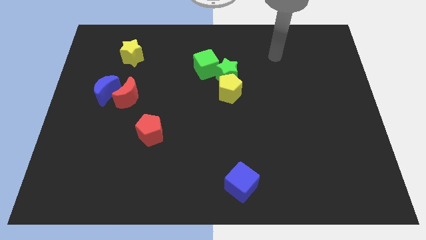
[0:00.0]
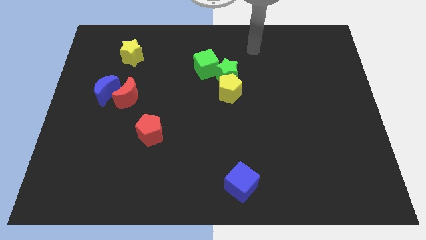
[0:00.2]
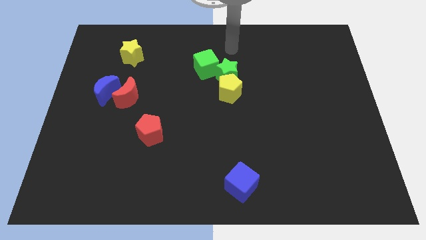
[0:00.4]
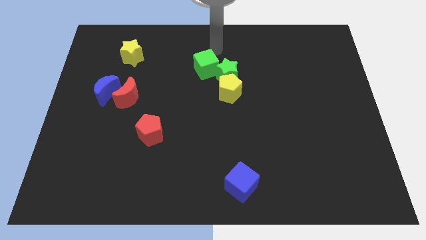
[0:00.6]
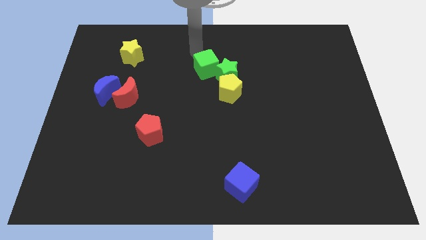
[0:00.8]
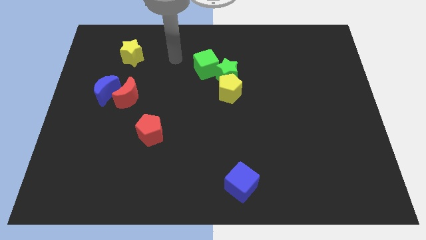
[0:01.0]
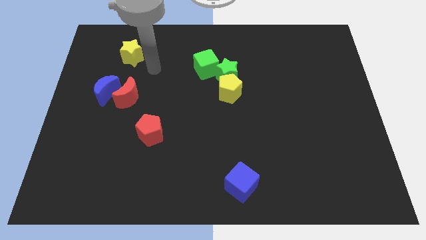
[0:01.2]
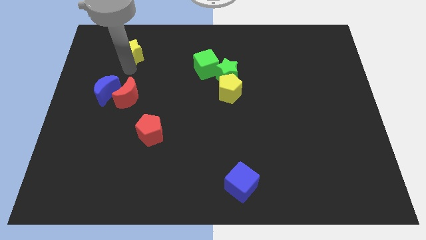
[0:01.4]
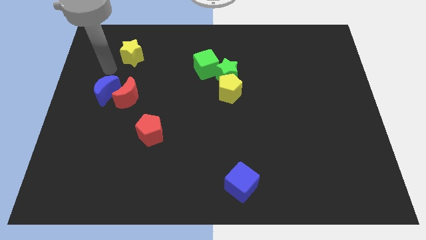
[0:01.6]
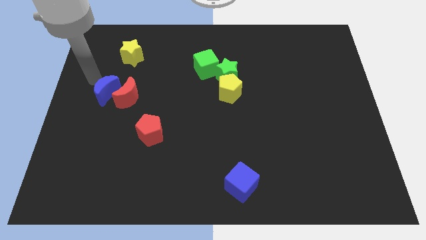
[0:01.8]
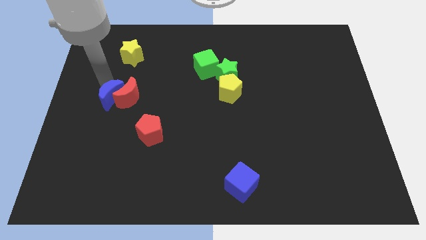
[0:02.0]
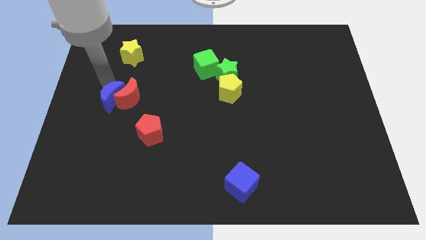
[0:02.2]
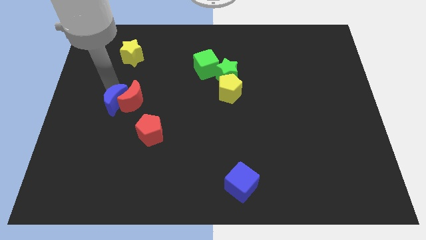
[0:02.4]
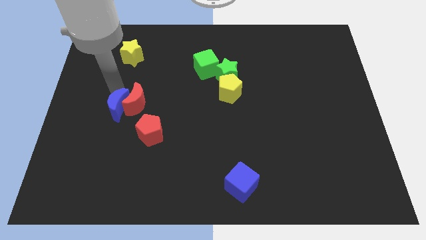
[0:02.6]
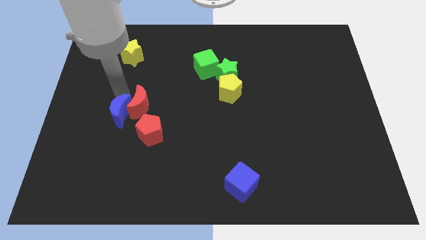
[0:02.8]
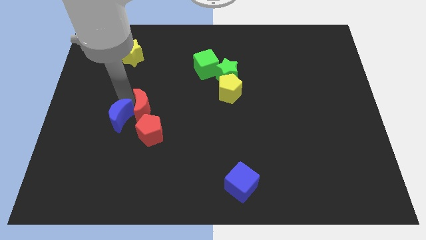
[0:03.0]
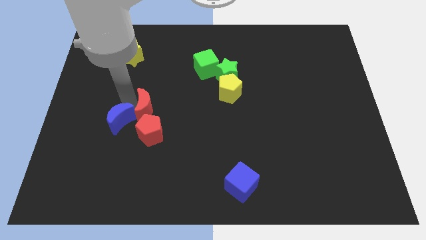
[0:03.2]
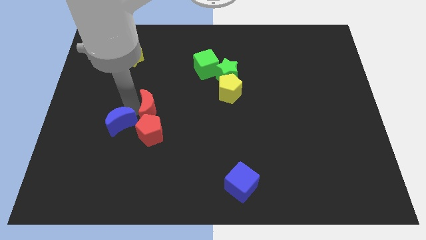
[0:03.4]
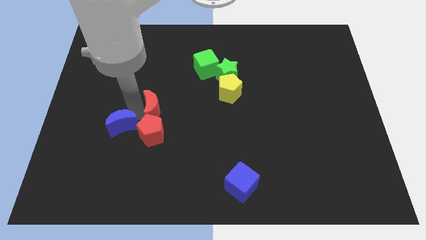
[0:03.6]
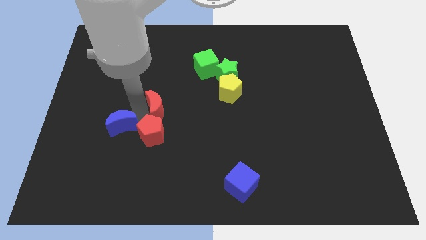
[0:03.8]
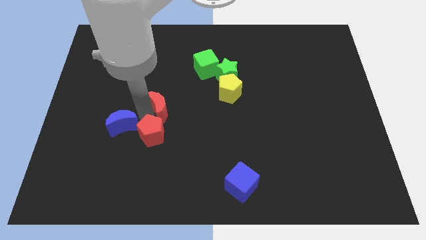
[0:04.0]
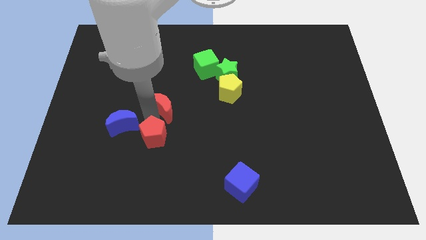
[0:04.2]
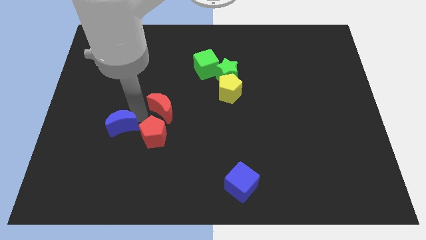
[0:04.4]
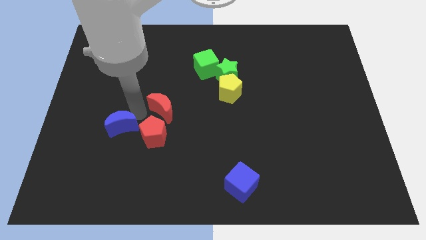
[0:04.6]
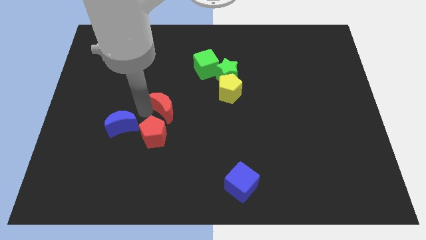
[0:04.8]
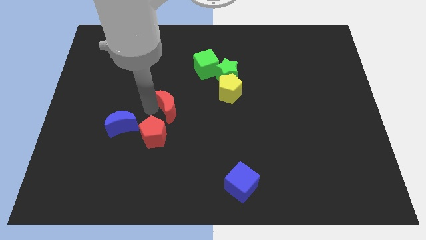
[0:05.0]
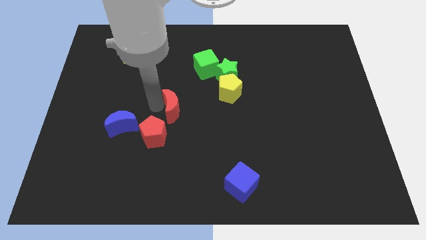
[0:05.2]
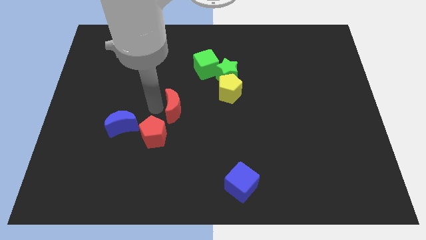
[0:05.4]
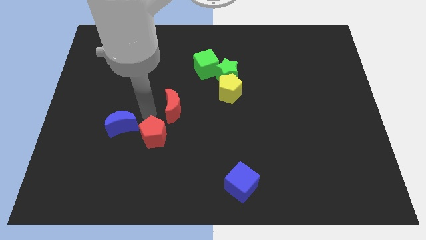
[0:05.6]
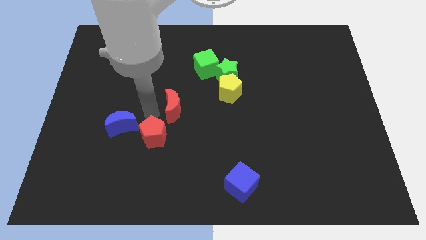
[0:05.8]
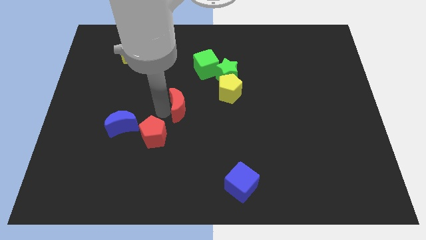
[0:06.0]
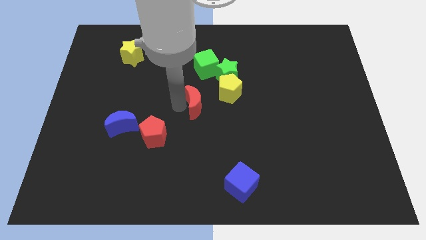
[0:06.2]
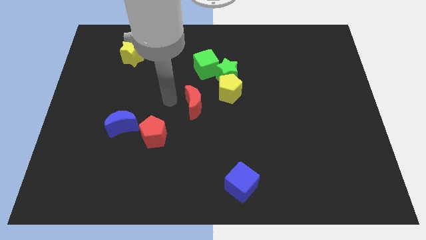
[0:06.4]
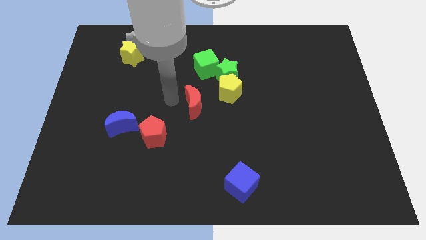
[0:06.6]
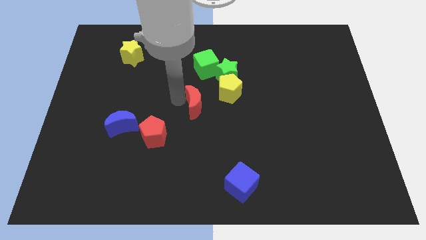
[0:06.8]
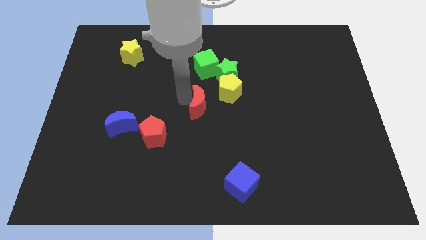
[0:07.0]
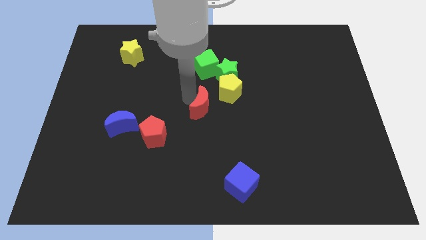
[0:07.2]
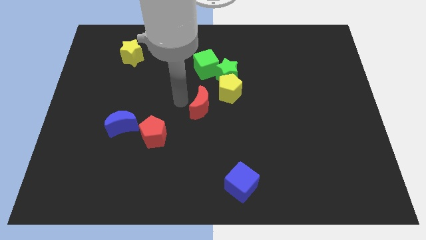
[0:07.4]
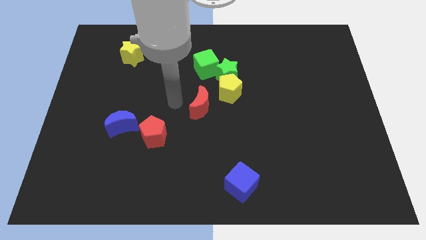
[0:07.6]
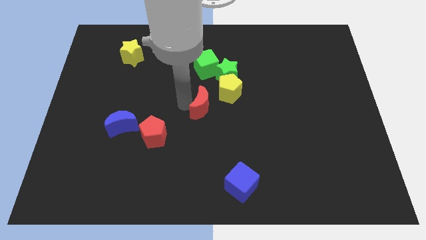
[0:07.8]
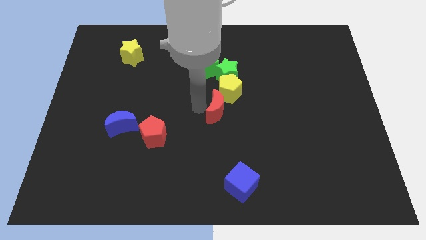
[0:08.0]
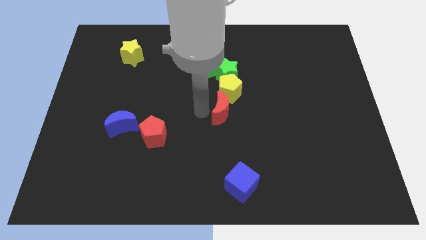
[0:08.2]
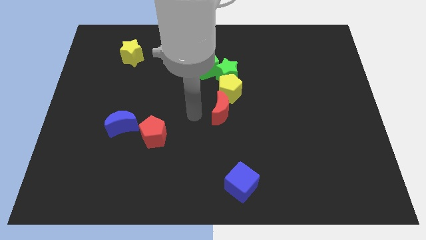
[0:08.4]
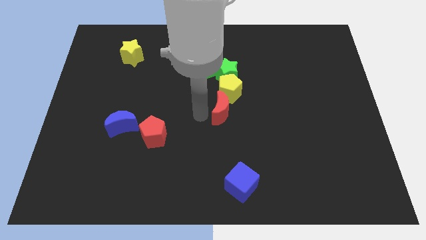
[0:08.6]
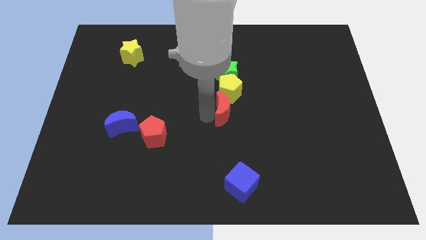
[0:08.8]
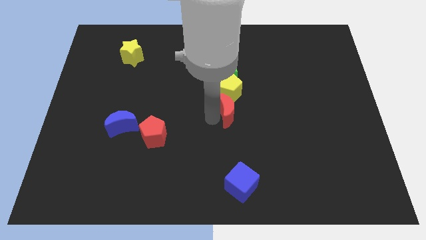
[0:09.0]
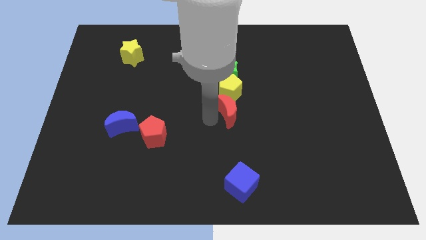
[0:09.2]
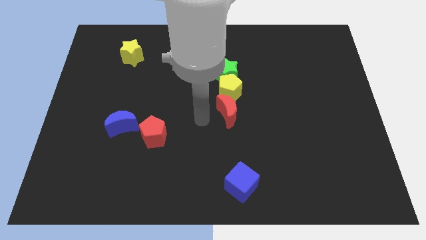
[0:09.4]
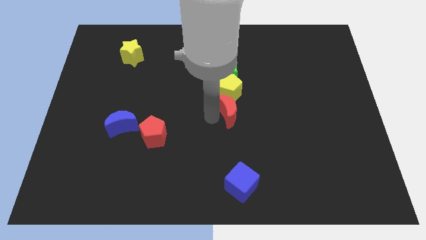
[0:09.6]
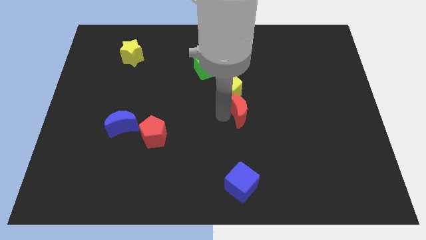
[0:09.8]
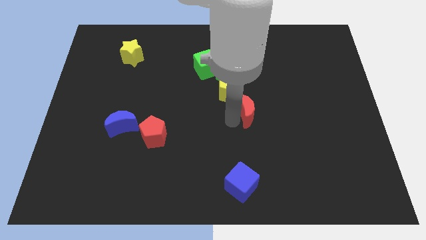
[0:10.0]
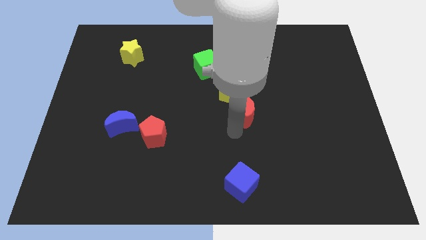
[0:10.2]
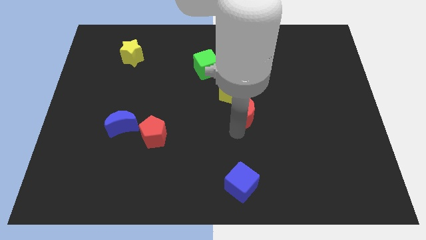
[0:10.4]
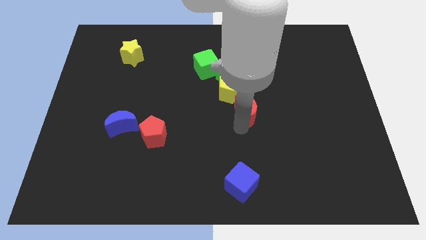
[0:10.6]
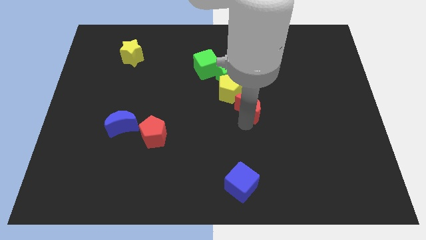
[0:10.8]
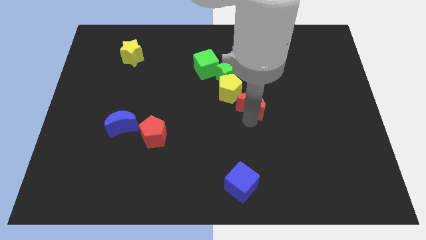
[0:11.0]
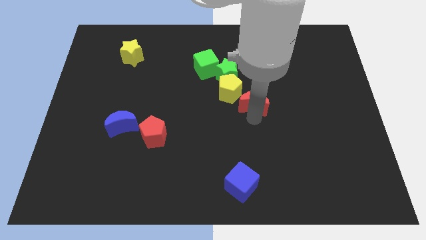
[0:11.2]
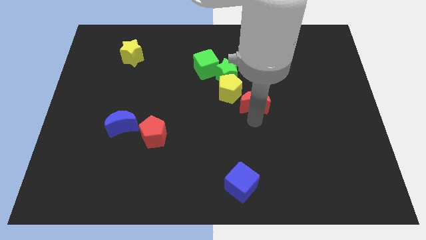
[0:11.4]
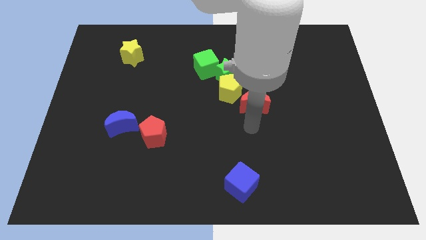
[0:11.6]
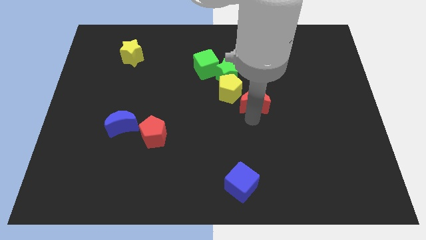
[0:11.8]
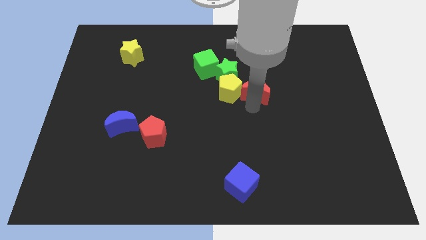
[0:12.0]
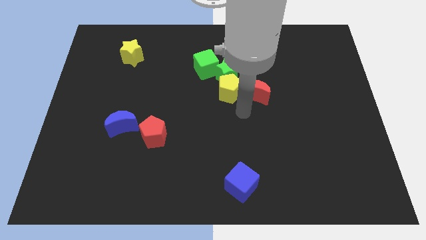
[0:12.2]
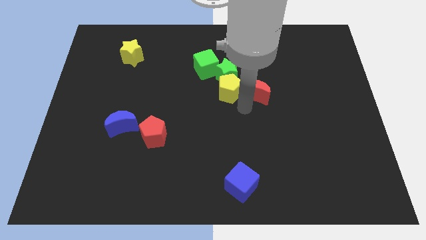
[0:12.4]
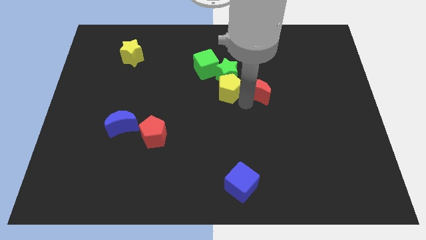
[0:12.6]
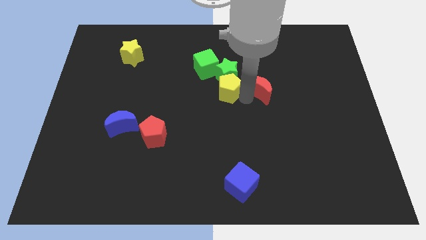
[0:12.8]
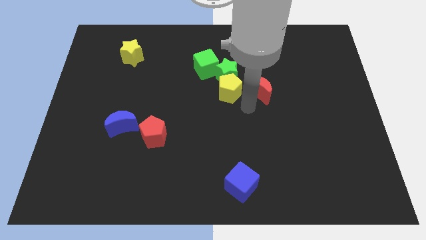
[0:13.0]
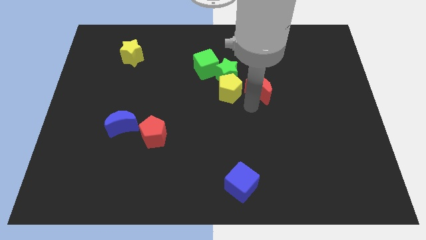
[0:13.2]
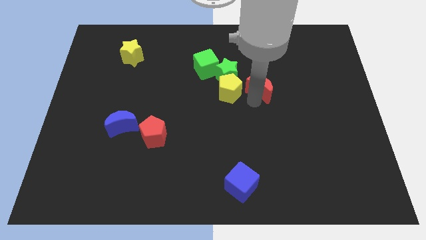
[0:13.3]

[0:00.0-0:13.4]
move the red moon right of the green star
